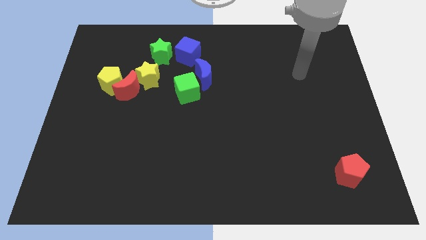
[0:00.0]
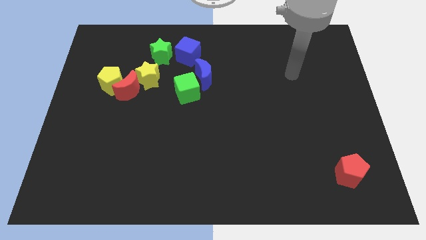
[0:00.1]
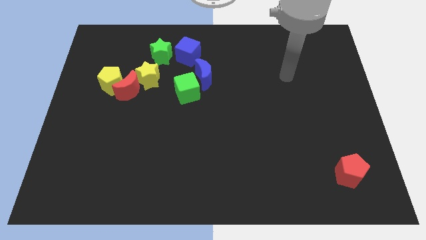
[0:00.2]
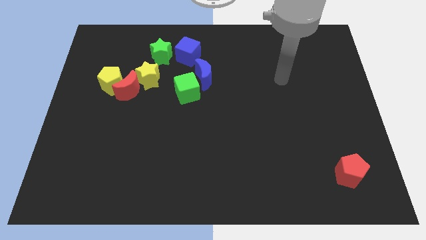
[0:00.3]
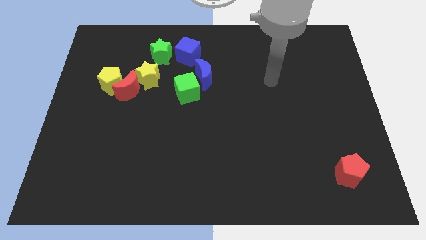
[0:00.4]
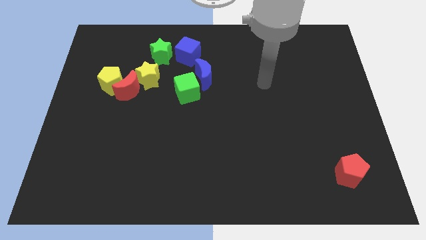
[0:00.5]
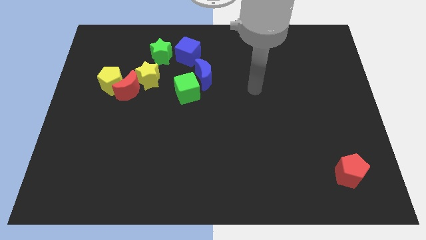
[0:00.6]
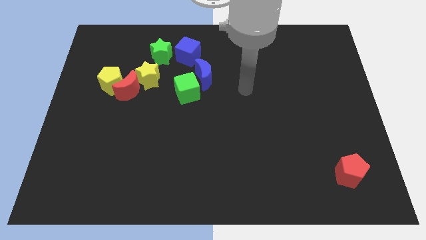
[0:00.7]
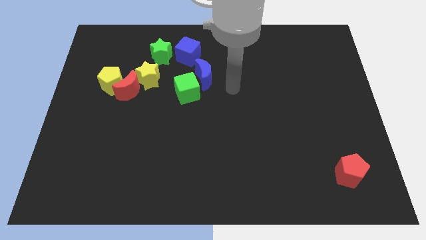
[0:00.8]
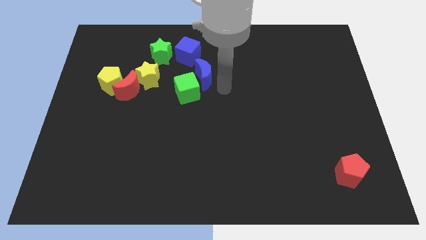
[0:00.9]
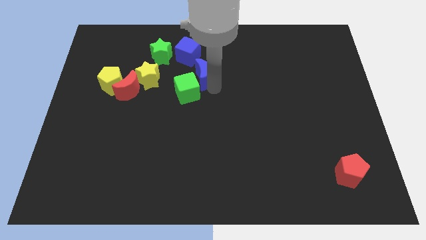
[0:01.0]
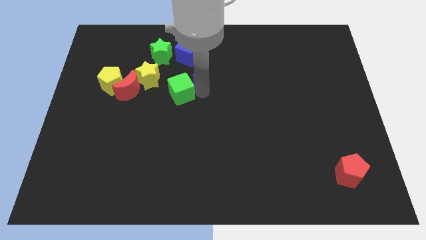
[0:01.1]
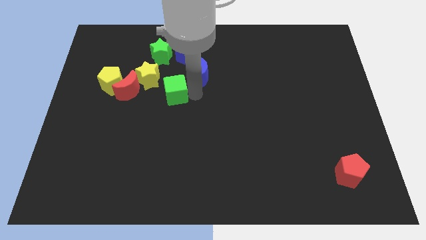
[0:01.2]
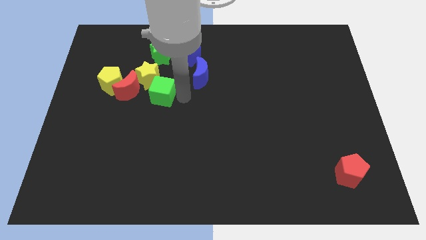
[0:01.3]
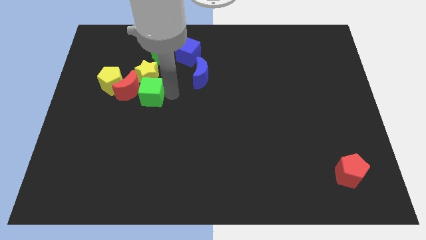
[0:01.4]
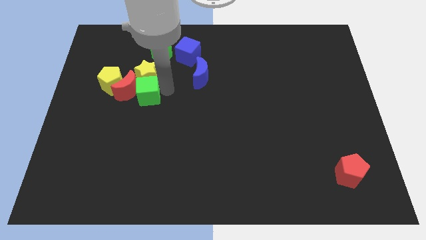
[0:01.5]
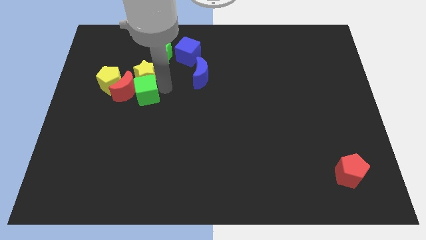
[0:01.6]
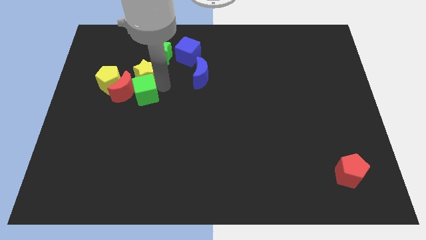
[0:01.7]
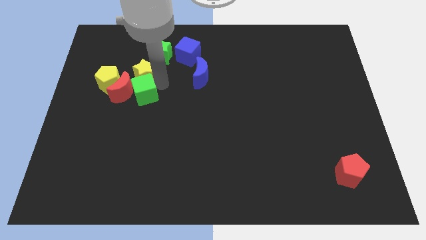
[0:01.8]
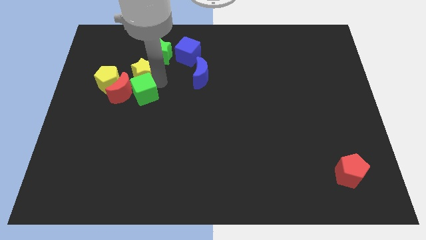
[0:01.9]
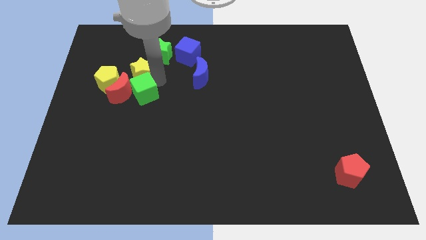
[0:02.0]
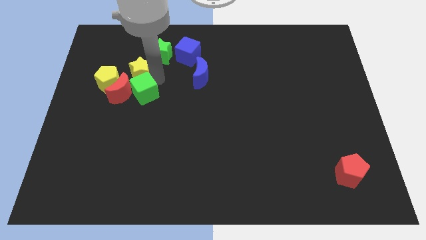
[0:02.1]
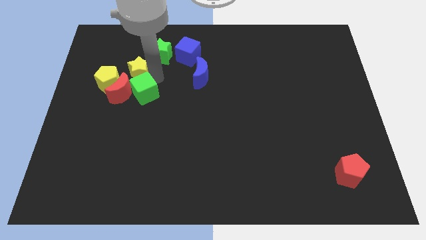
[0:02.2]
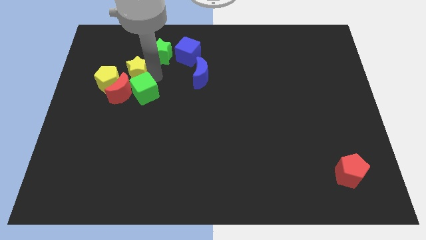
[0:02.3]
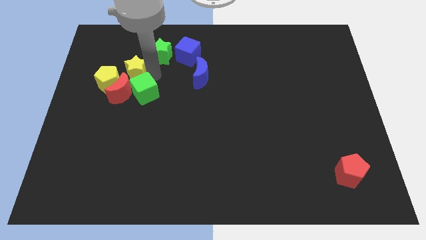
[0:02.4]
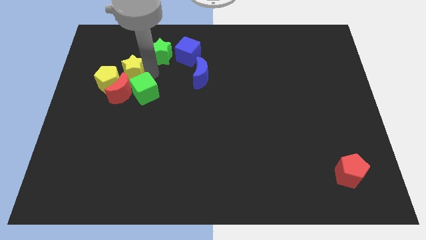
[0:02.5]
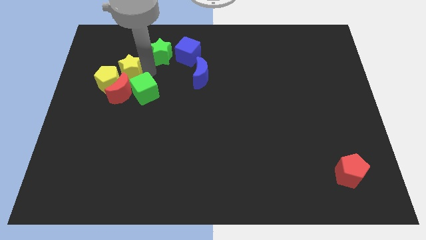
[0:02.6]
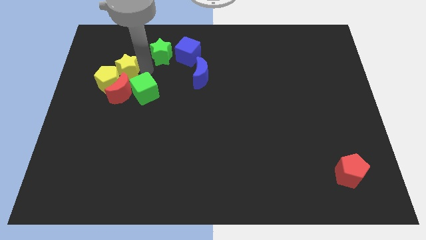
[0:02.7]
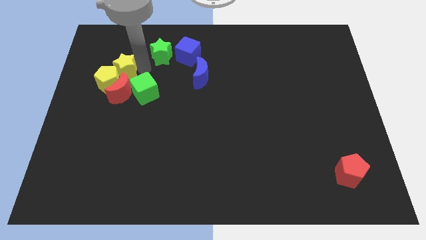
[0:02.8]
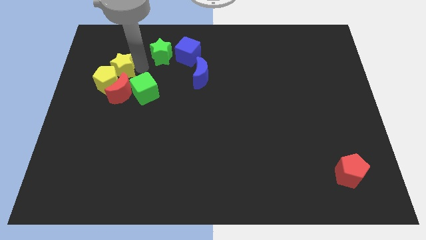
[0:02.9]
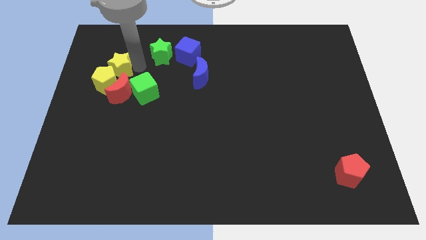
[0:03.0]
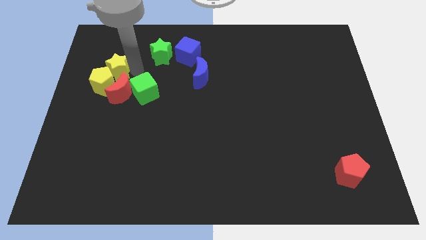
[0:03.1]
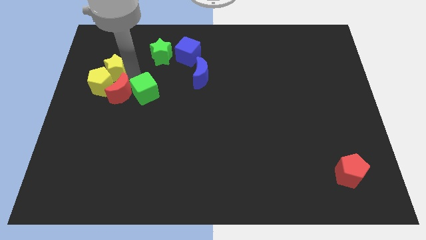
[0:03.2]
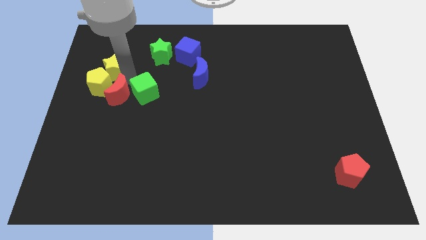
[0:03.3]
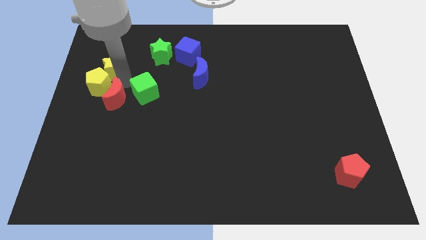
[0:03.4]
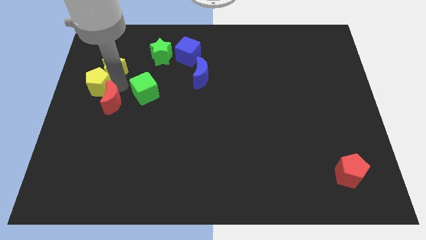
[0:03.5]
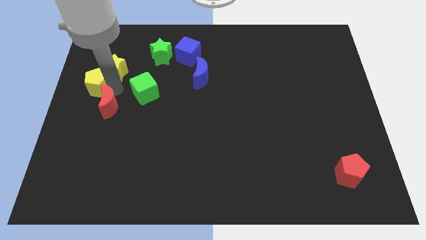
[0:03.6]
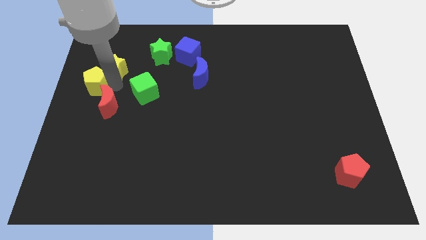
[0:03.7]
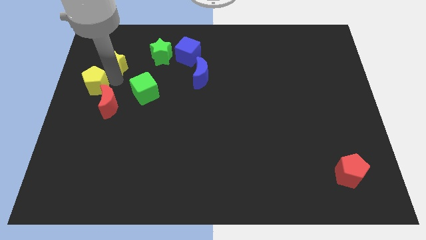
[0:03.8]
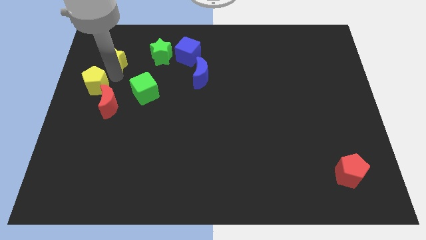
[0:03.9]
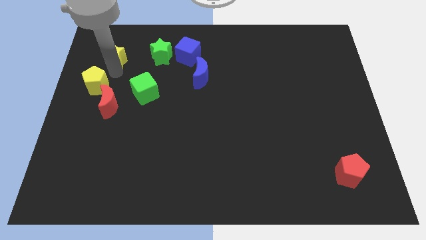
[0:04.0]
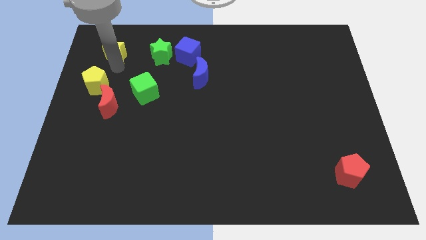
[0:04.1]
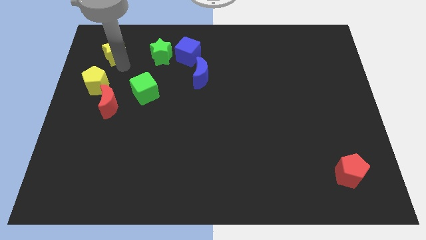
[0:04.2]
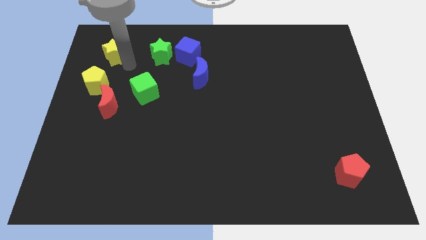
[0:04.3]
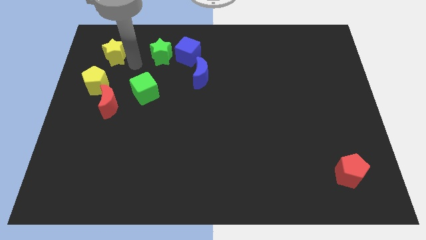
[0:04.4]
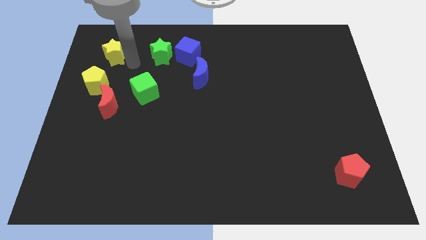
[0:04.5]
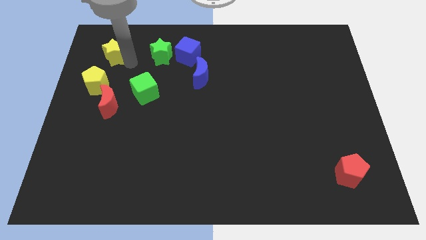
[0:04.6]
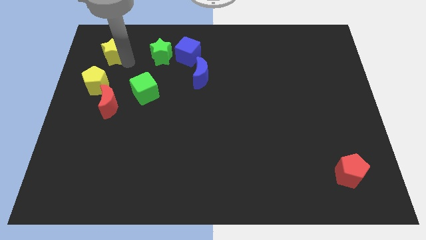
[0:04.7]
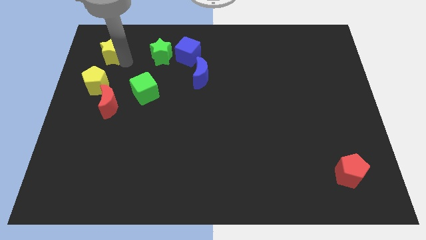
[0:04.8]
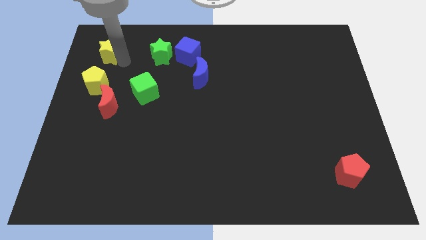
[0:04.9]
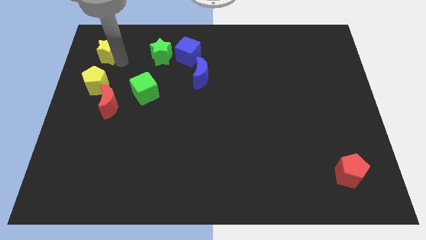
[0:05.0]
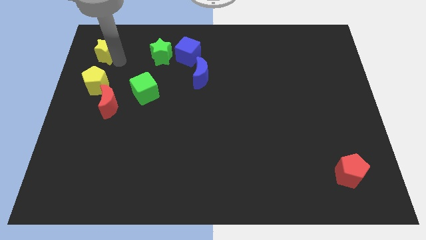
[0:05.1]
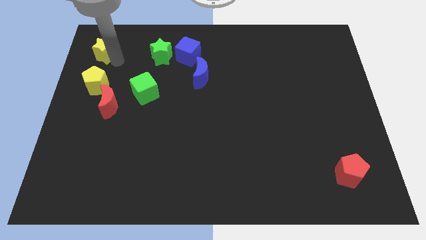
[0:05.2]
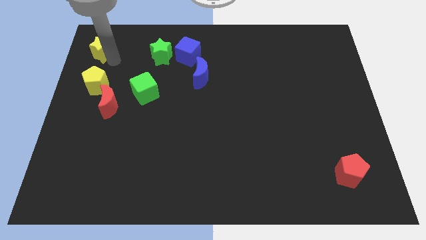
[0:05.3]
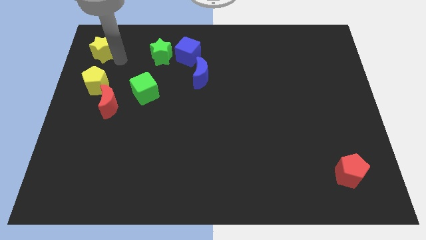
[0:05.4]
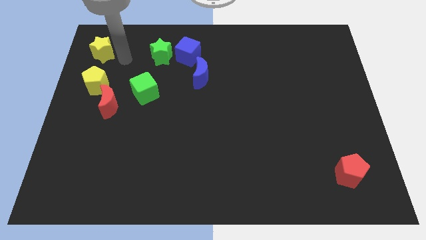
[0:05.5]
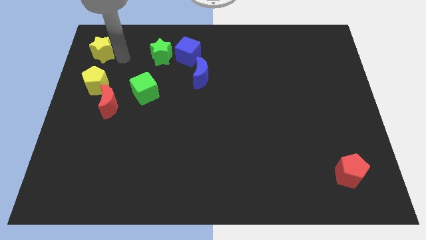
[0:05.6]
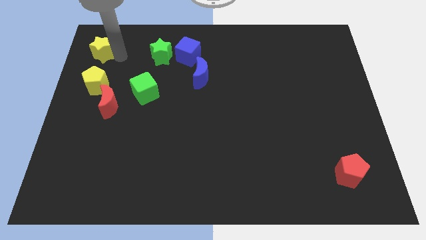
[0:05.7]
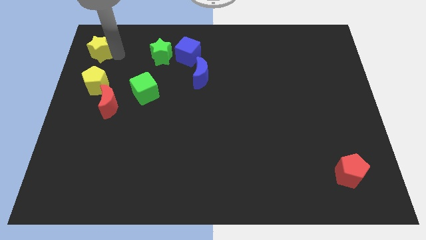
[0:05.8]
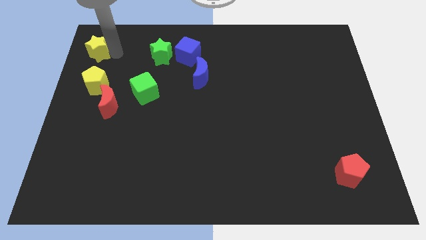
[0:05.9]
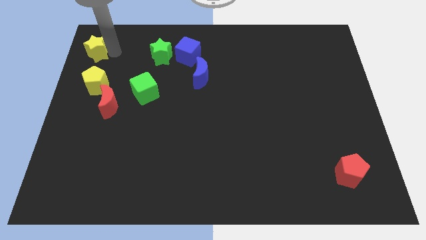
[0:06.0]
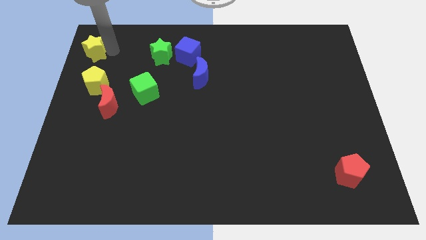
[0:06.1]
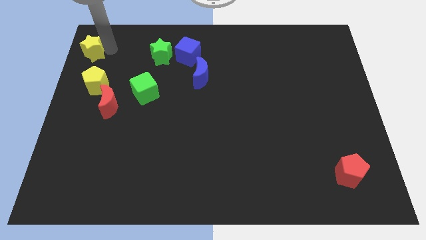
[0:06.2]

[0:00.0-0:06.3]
put the yellow star to the top left of the board

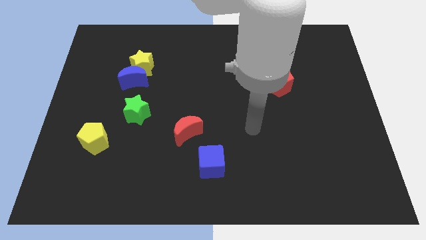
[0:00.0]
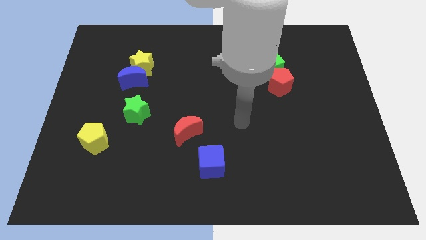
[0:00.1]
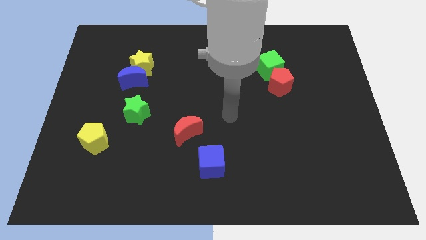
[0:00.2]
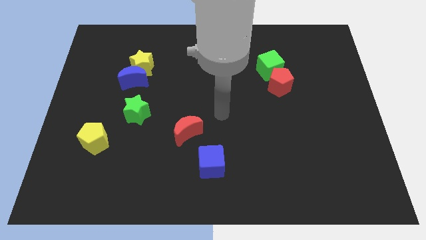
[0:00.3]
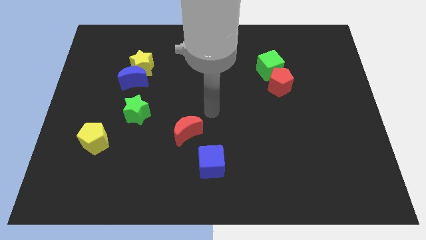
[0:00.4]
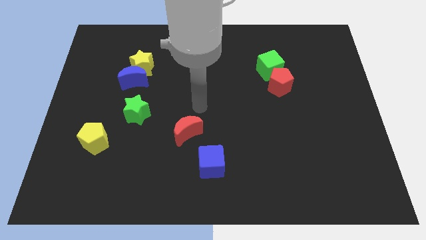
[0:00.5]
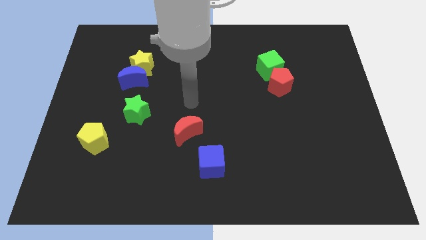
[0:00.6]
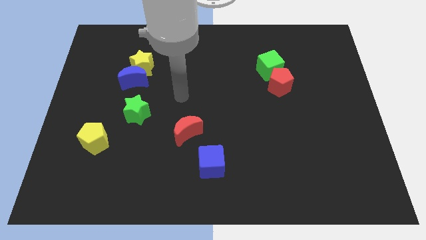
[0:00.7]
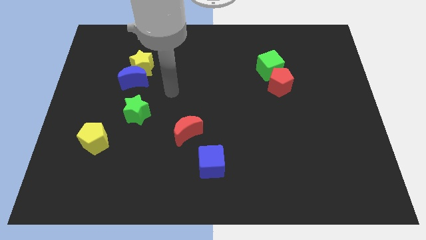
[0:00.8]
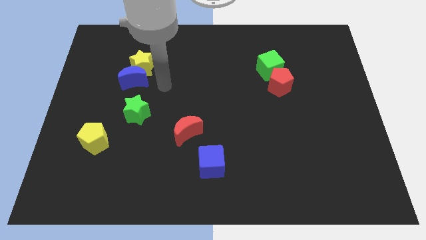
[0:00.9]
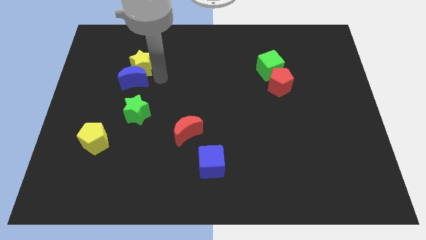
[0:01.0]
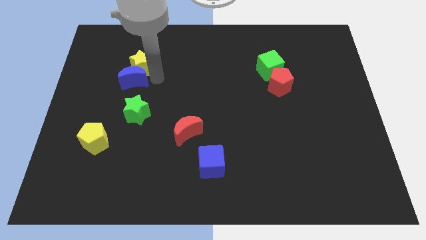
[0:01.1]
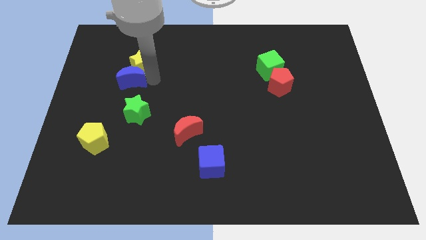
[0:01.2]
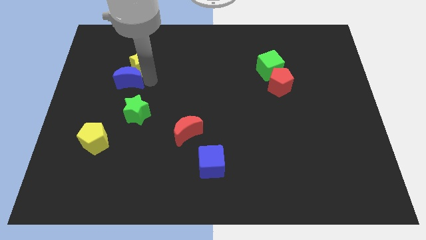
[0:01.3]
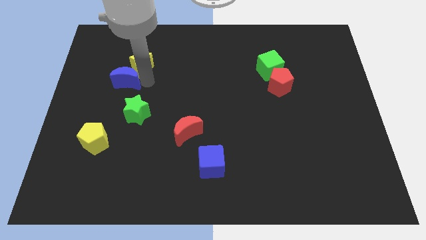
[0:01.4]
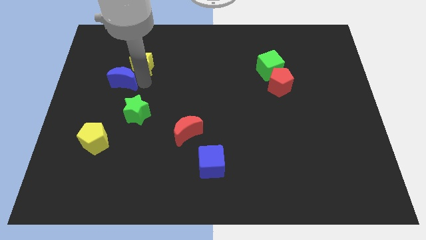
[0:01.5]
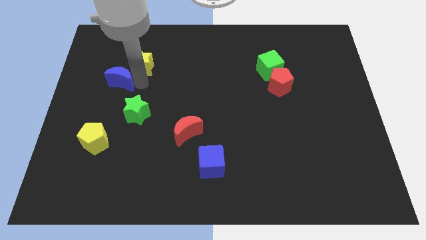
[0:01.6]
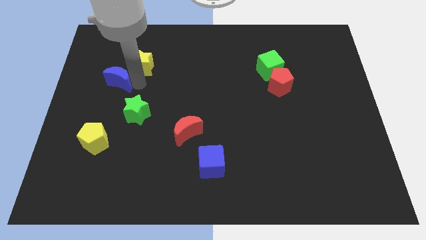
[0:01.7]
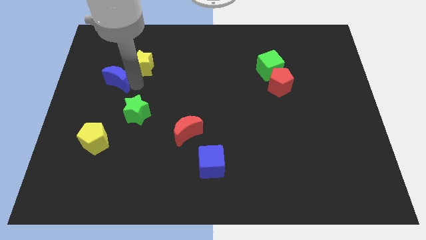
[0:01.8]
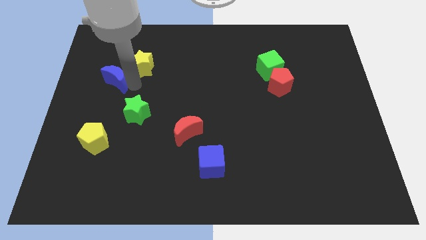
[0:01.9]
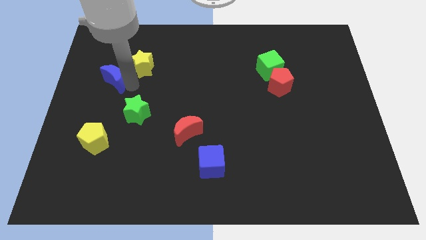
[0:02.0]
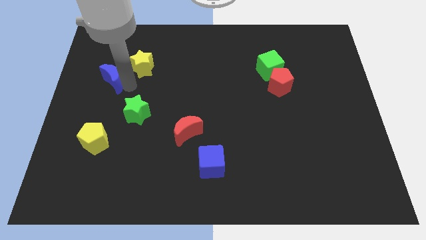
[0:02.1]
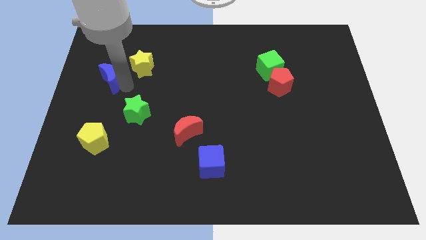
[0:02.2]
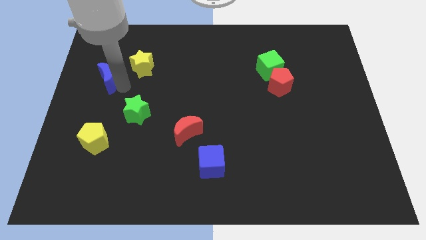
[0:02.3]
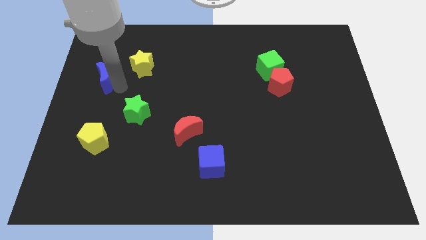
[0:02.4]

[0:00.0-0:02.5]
move the blue moon to the left side of the board
